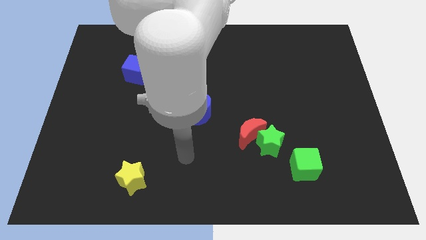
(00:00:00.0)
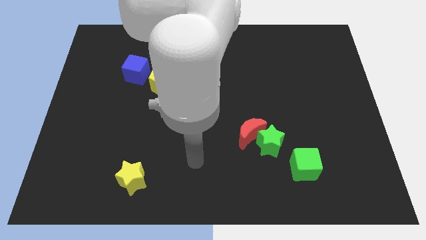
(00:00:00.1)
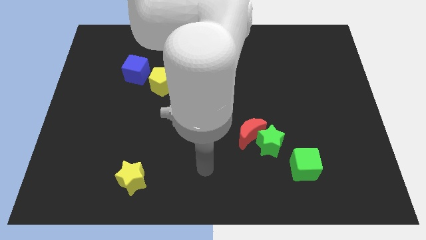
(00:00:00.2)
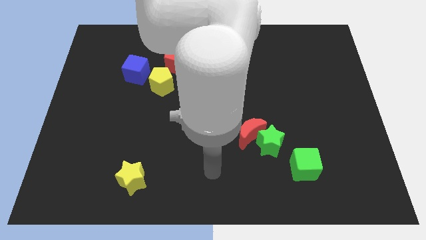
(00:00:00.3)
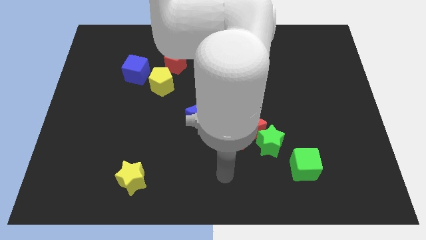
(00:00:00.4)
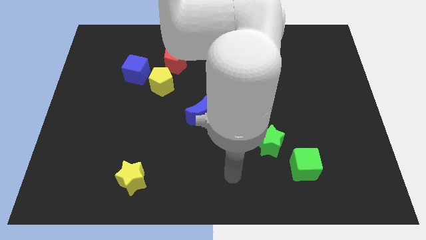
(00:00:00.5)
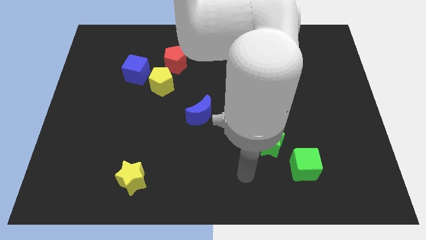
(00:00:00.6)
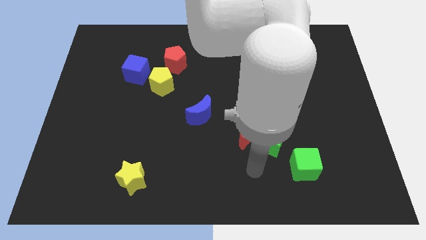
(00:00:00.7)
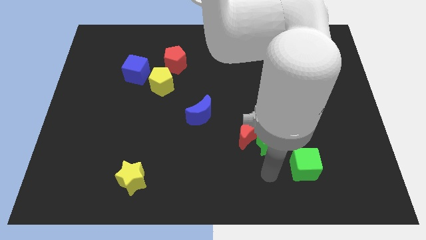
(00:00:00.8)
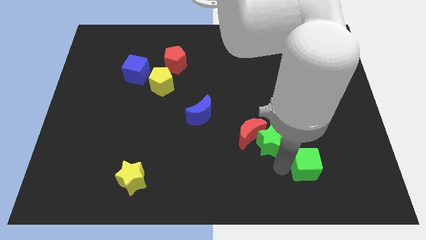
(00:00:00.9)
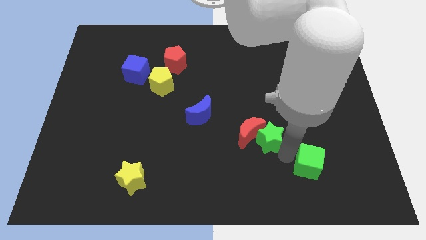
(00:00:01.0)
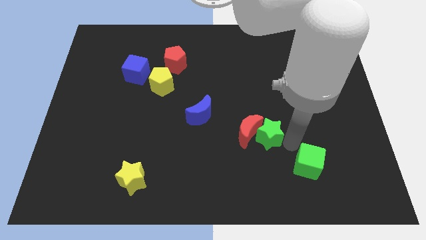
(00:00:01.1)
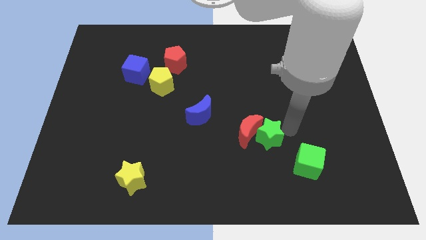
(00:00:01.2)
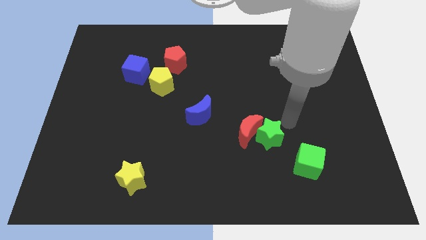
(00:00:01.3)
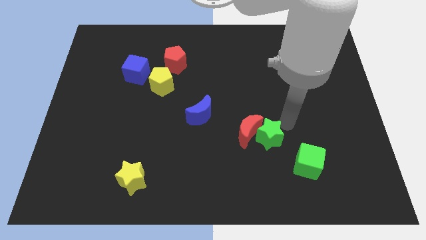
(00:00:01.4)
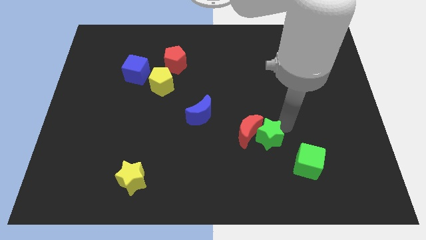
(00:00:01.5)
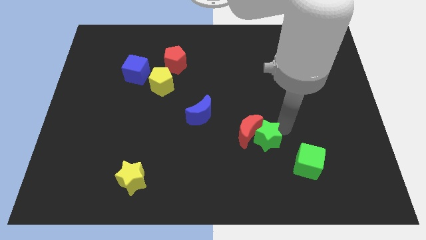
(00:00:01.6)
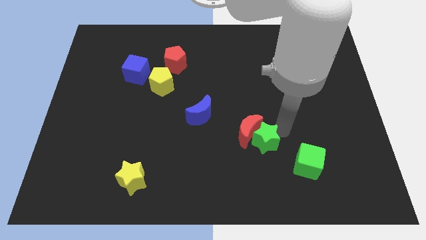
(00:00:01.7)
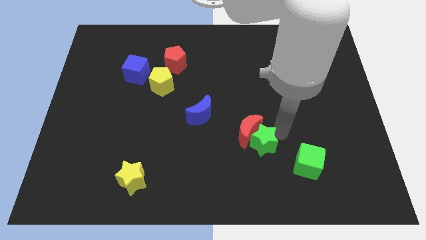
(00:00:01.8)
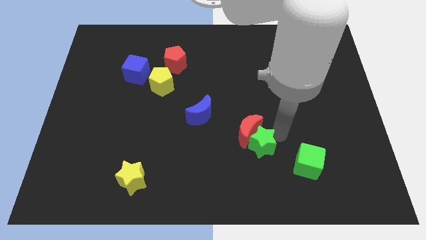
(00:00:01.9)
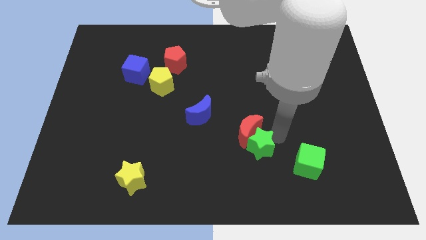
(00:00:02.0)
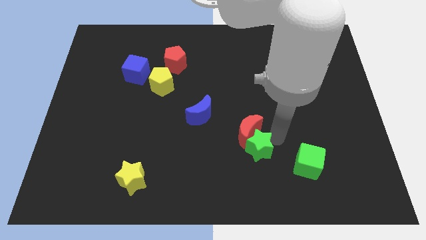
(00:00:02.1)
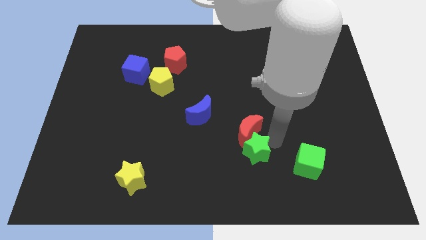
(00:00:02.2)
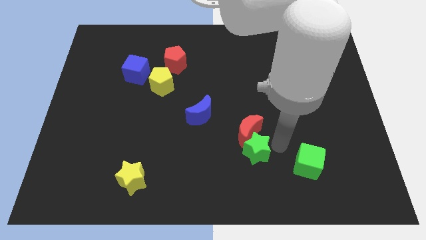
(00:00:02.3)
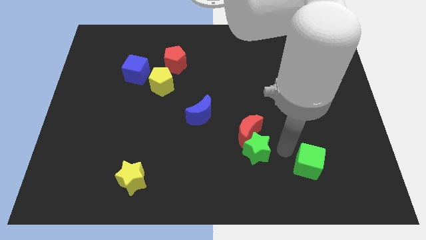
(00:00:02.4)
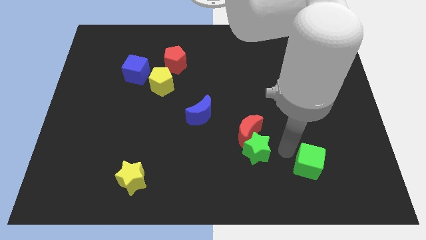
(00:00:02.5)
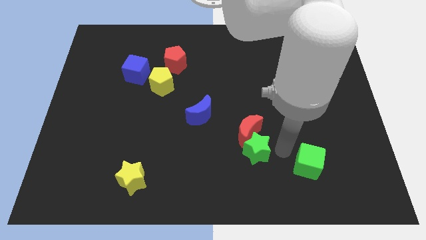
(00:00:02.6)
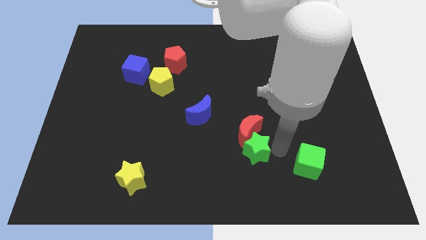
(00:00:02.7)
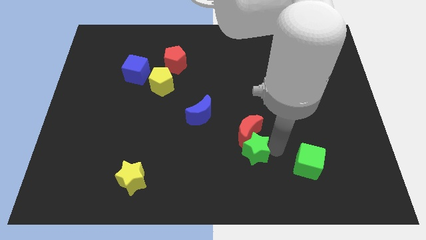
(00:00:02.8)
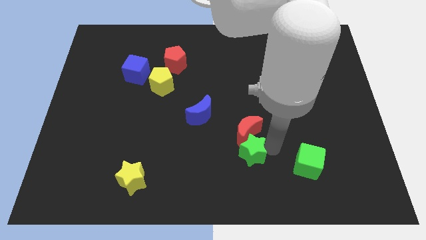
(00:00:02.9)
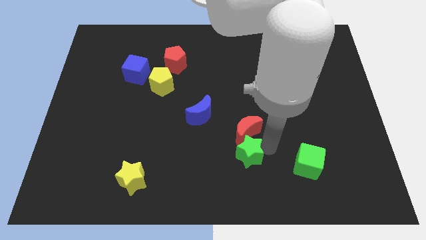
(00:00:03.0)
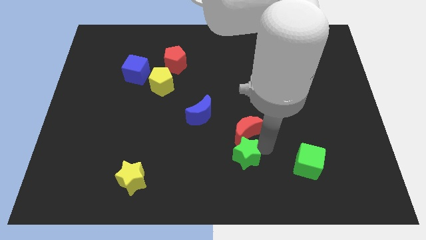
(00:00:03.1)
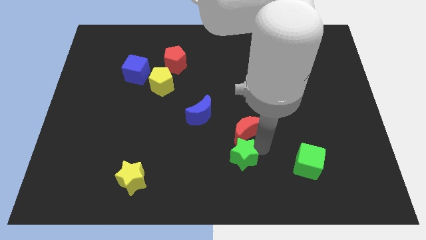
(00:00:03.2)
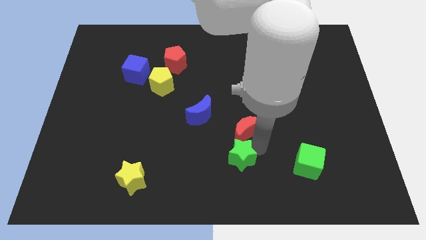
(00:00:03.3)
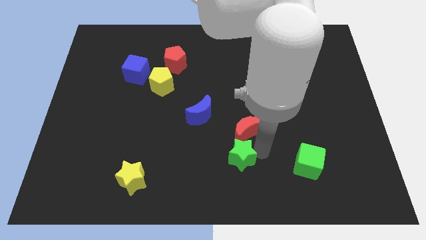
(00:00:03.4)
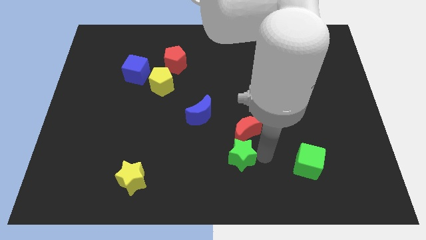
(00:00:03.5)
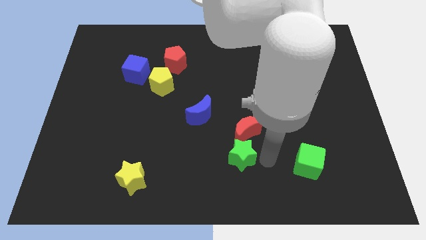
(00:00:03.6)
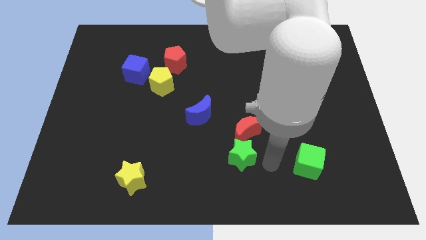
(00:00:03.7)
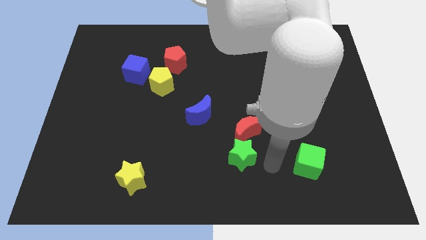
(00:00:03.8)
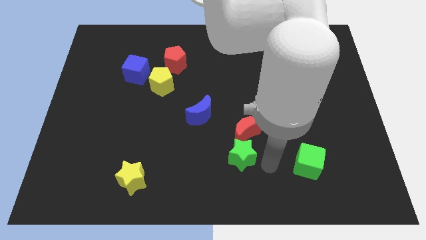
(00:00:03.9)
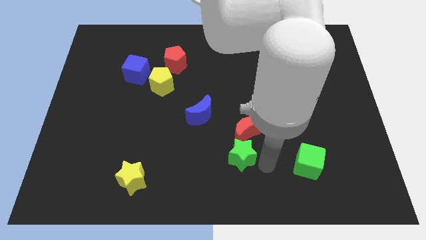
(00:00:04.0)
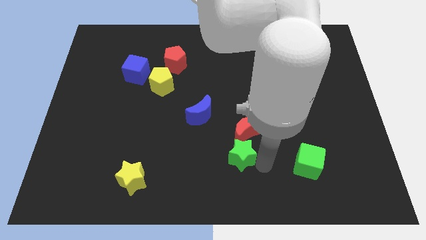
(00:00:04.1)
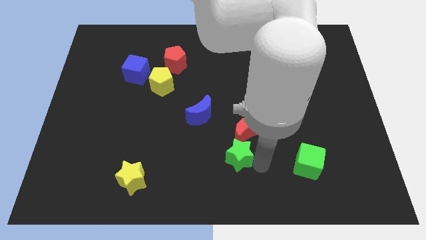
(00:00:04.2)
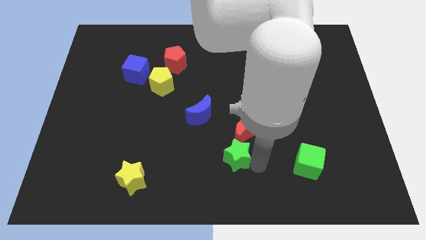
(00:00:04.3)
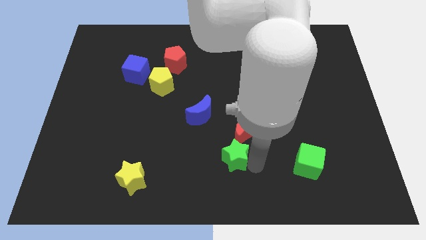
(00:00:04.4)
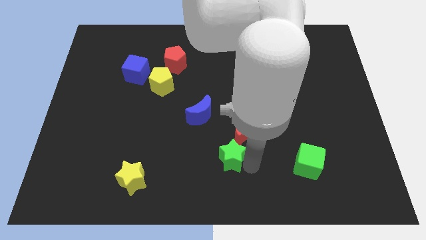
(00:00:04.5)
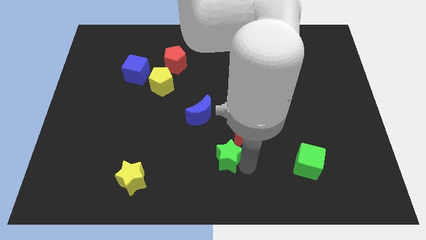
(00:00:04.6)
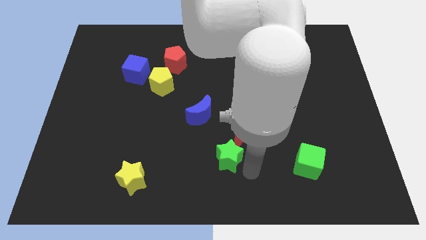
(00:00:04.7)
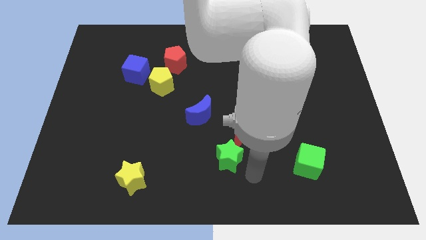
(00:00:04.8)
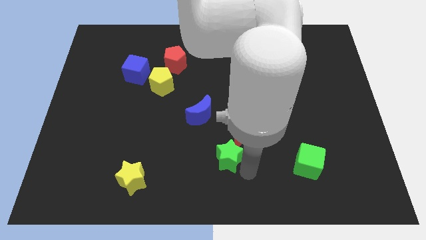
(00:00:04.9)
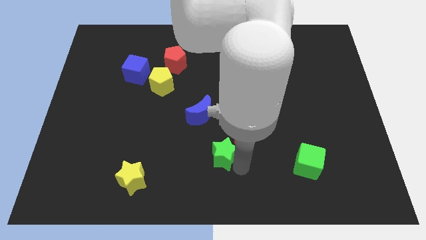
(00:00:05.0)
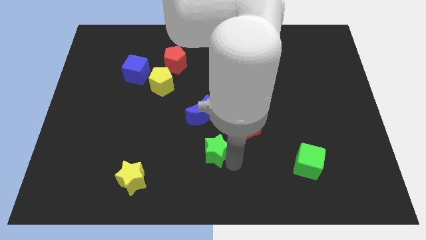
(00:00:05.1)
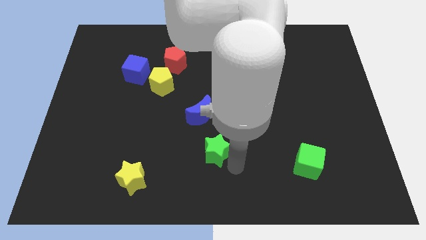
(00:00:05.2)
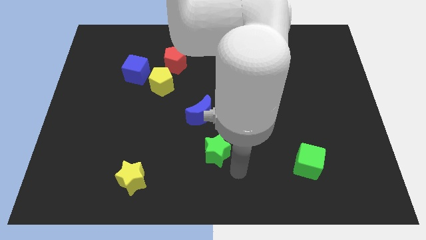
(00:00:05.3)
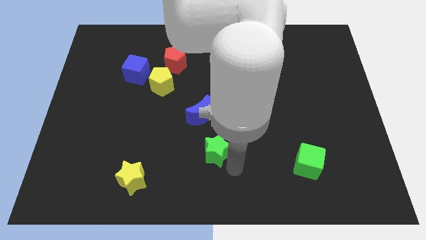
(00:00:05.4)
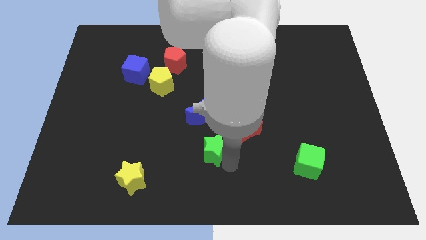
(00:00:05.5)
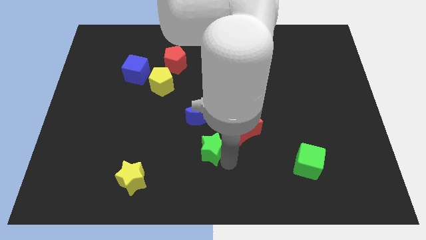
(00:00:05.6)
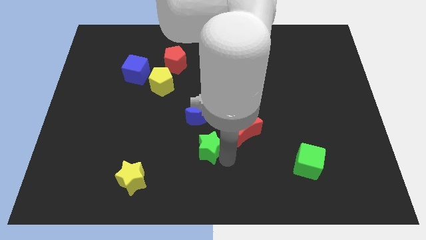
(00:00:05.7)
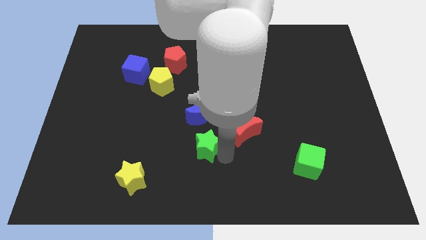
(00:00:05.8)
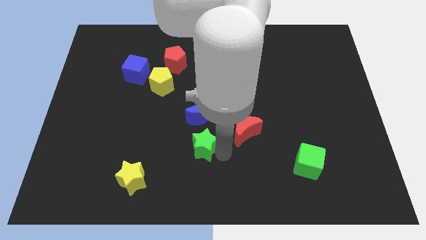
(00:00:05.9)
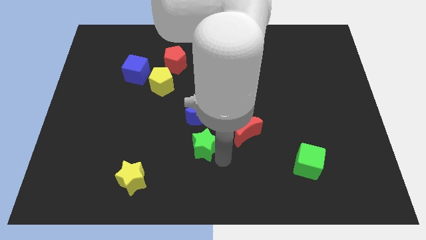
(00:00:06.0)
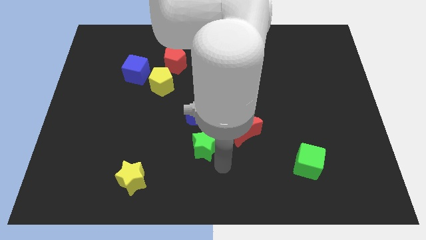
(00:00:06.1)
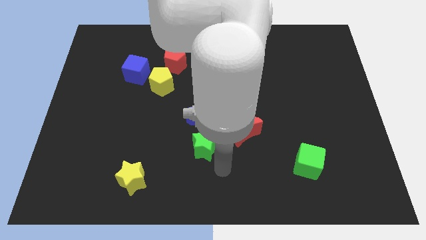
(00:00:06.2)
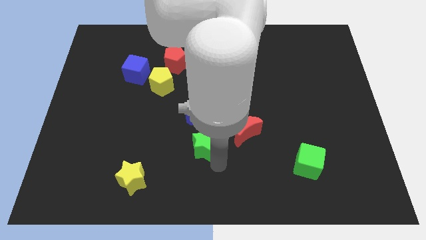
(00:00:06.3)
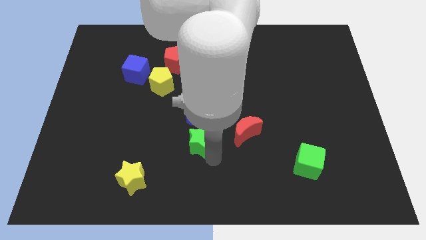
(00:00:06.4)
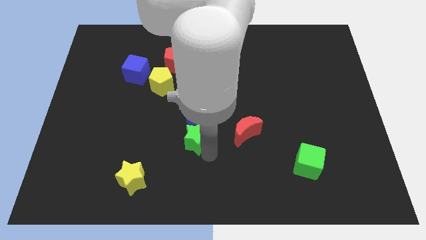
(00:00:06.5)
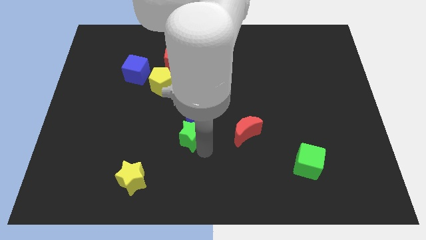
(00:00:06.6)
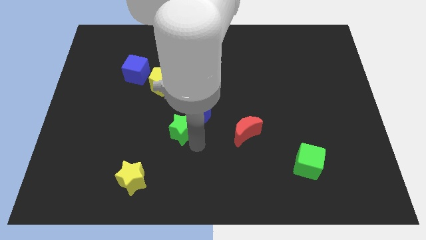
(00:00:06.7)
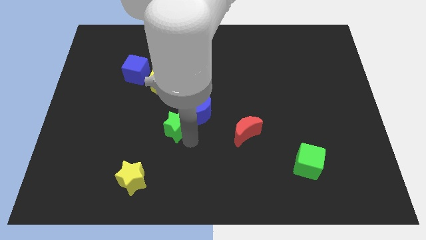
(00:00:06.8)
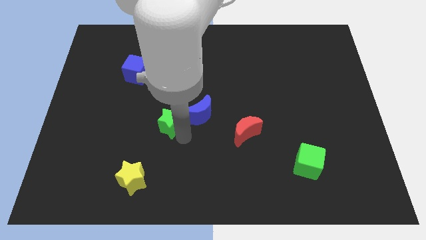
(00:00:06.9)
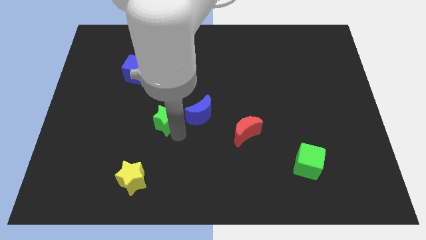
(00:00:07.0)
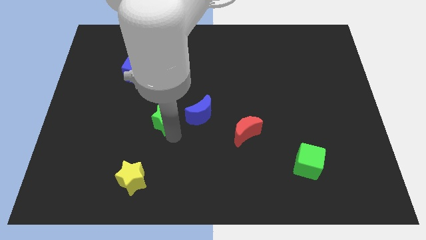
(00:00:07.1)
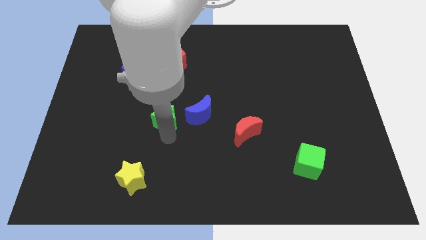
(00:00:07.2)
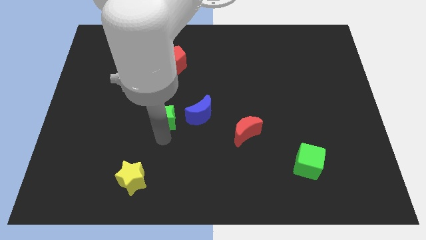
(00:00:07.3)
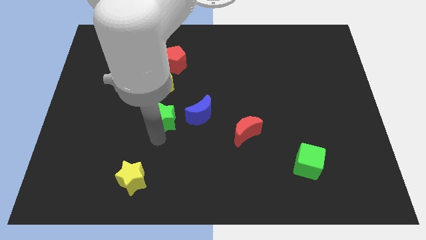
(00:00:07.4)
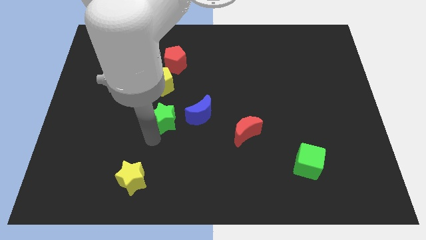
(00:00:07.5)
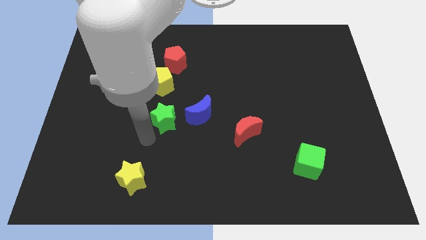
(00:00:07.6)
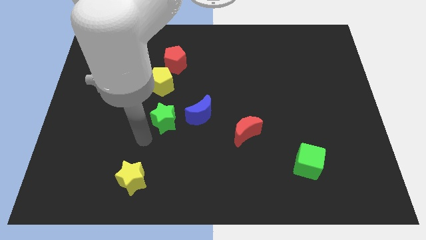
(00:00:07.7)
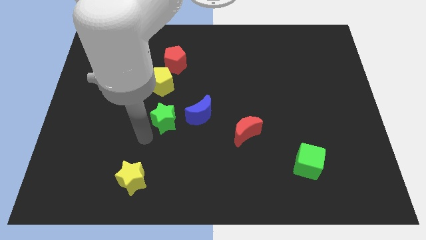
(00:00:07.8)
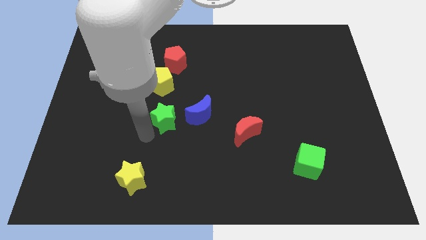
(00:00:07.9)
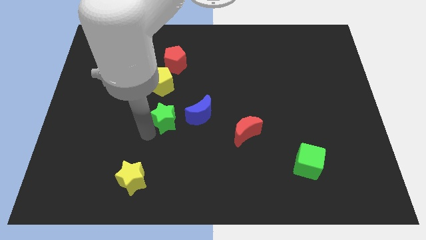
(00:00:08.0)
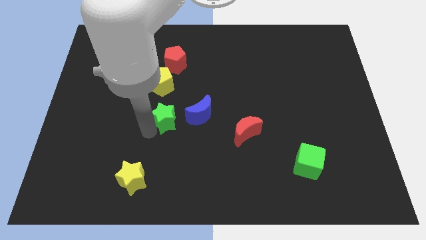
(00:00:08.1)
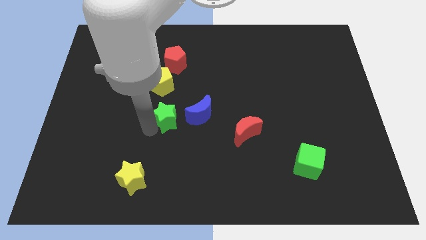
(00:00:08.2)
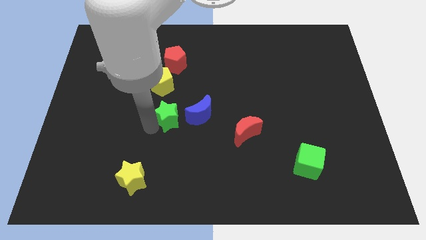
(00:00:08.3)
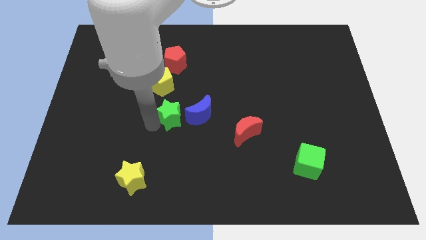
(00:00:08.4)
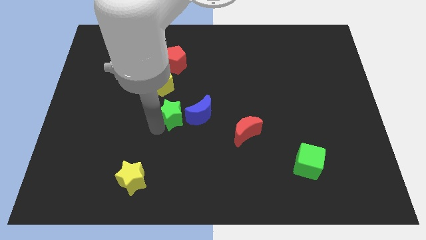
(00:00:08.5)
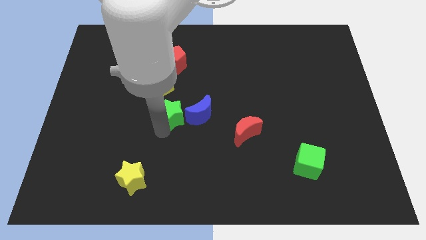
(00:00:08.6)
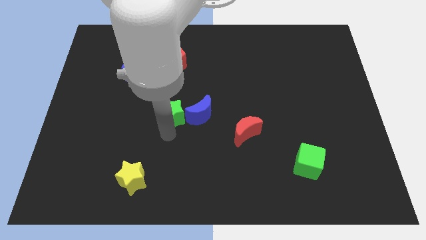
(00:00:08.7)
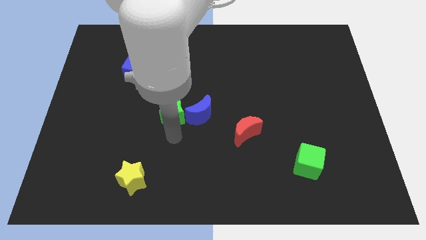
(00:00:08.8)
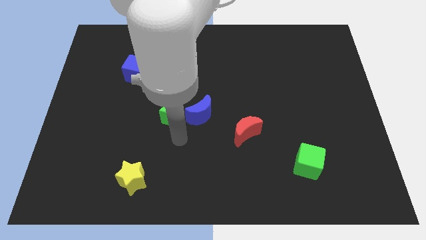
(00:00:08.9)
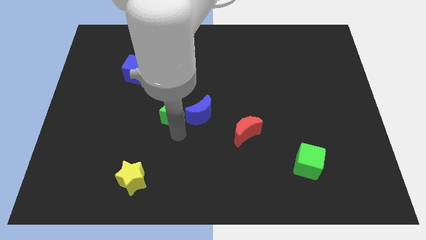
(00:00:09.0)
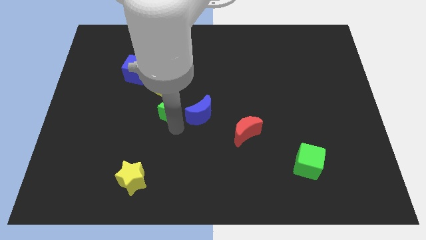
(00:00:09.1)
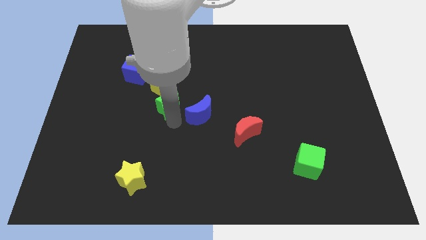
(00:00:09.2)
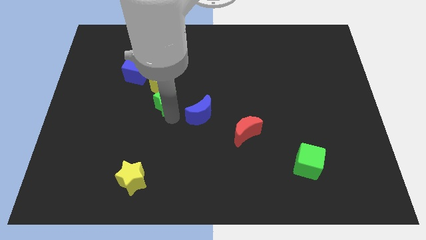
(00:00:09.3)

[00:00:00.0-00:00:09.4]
put the green star to the bottom right side of the blue cube
